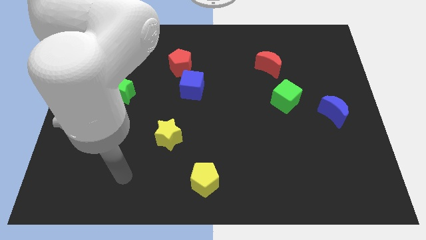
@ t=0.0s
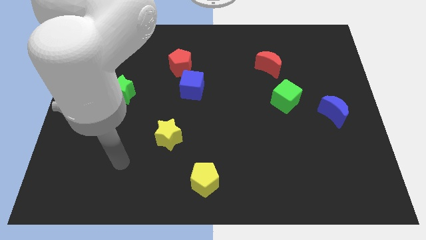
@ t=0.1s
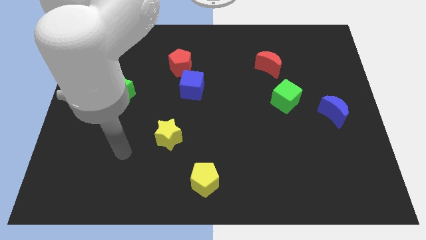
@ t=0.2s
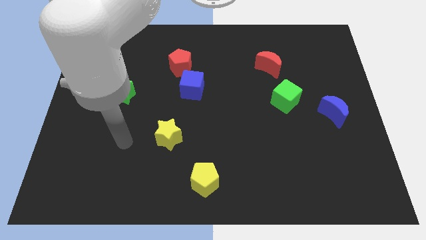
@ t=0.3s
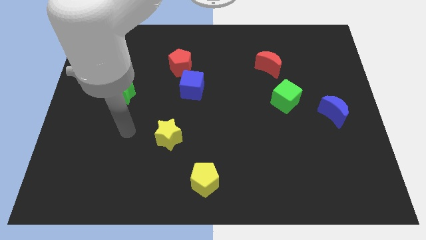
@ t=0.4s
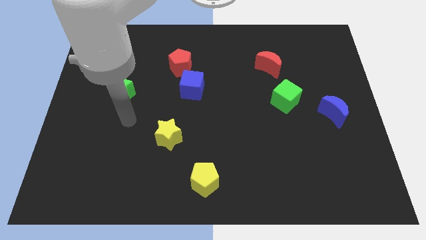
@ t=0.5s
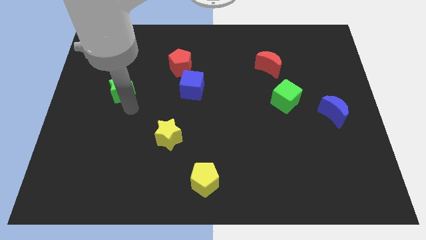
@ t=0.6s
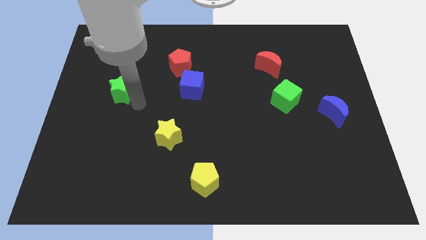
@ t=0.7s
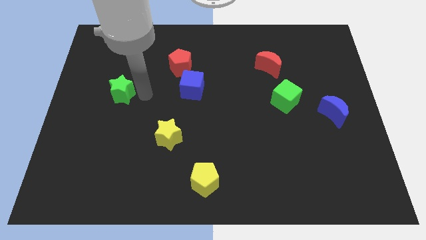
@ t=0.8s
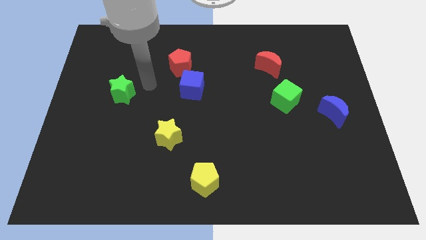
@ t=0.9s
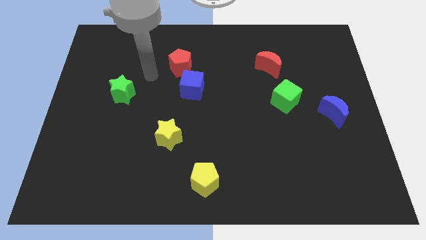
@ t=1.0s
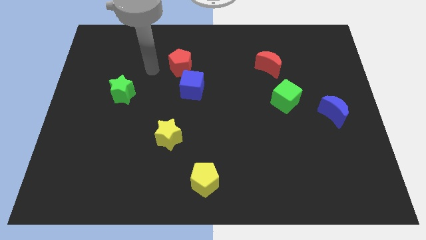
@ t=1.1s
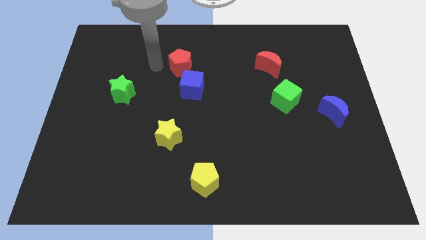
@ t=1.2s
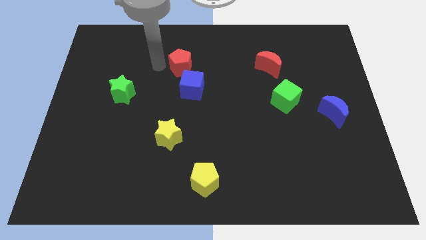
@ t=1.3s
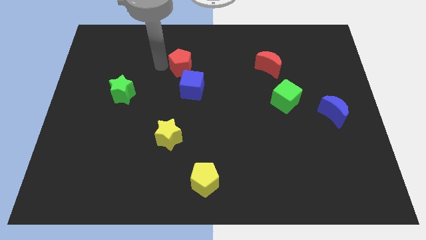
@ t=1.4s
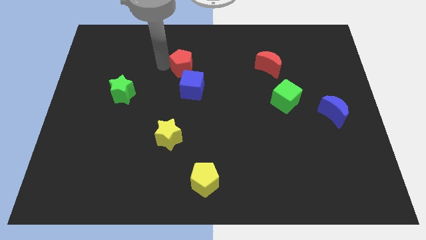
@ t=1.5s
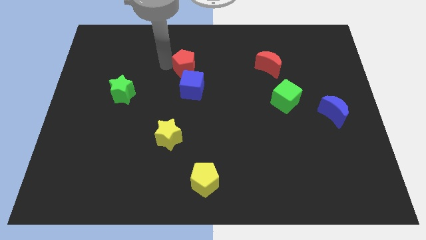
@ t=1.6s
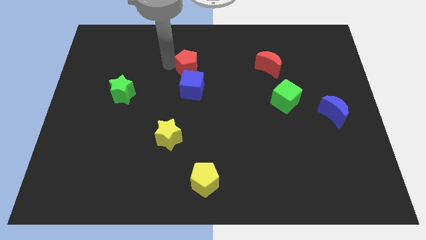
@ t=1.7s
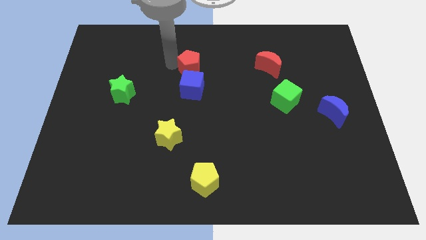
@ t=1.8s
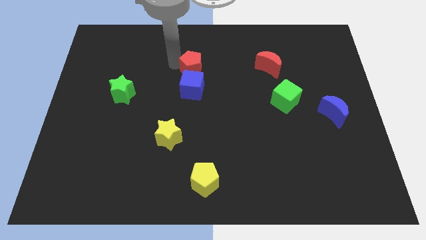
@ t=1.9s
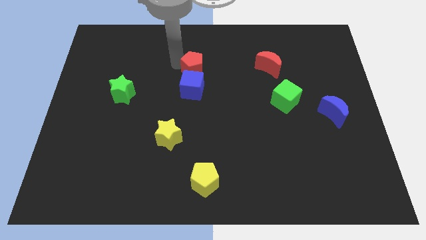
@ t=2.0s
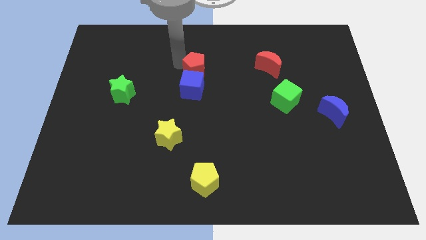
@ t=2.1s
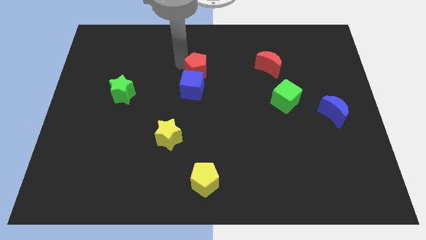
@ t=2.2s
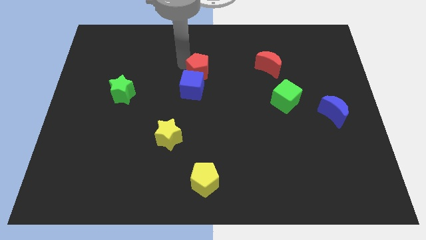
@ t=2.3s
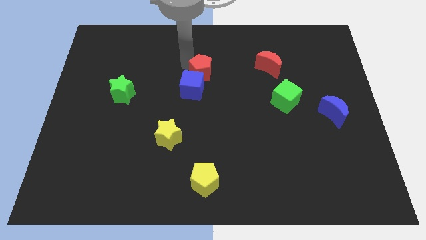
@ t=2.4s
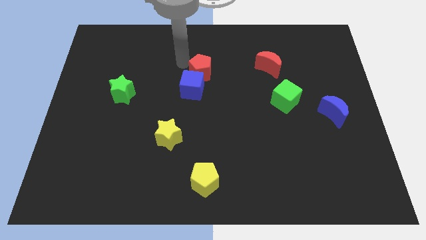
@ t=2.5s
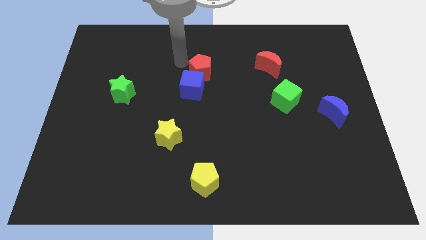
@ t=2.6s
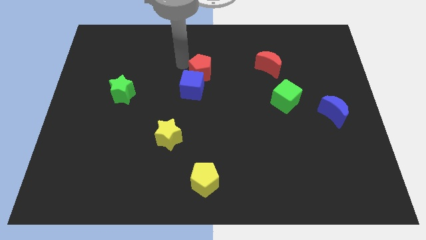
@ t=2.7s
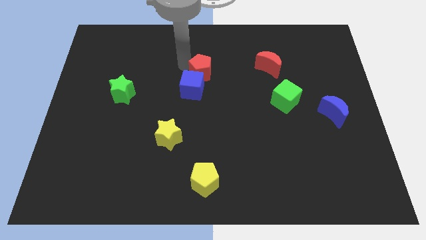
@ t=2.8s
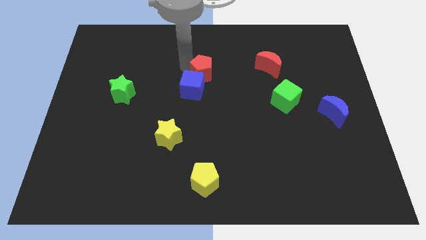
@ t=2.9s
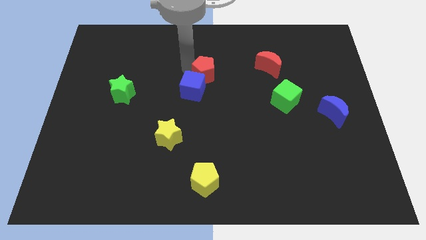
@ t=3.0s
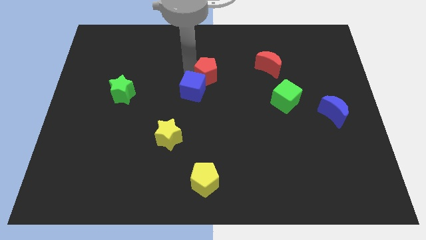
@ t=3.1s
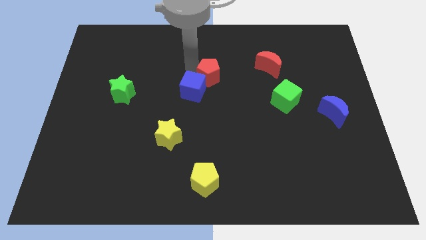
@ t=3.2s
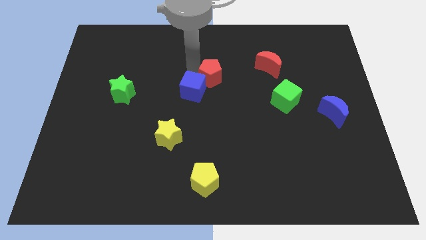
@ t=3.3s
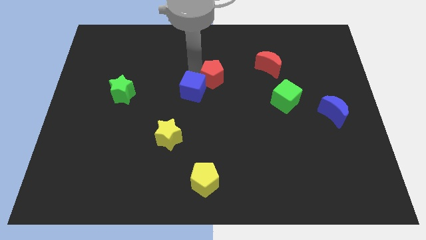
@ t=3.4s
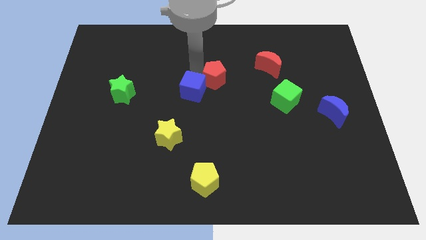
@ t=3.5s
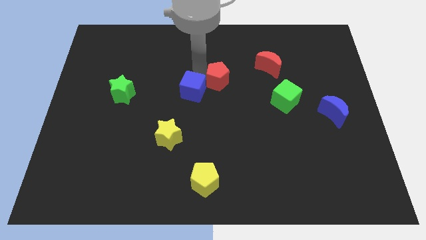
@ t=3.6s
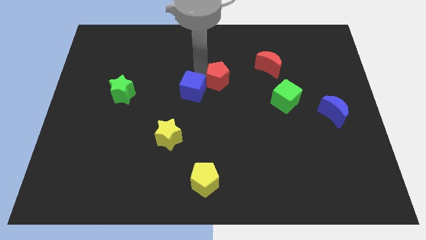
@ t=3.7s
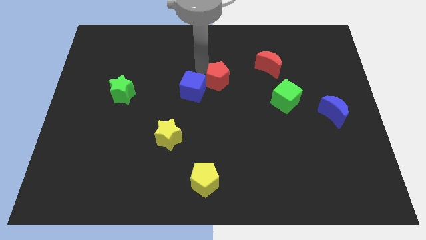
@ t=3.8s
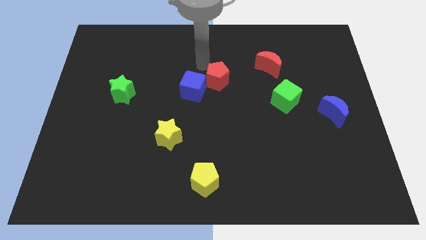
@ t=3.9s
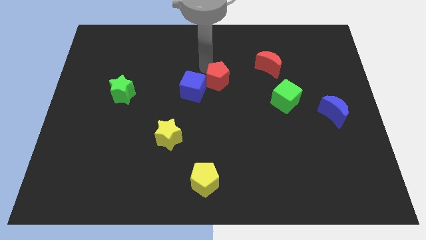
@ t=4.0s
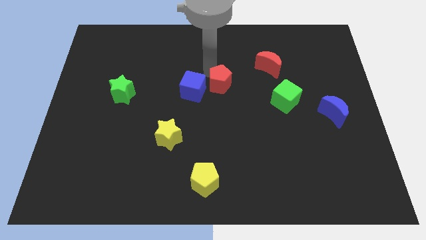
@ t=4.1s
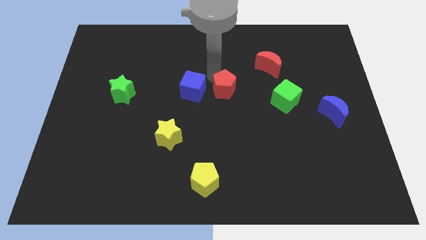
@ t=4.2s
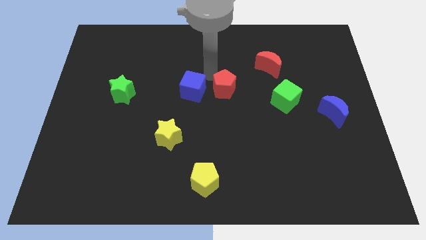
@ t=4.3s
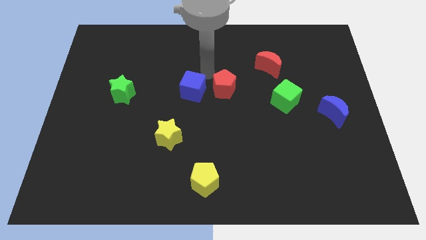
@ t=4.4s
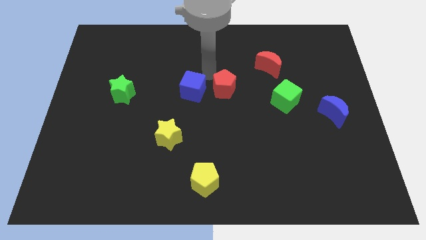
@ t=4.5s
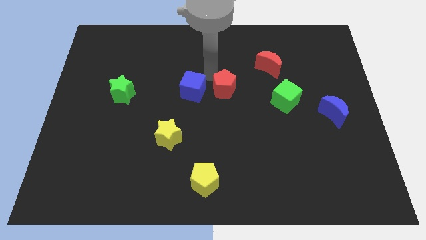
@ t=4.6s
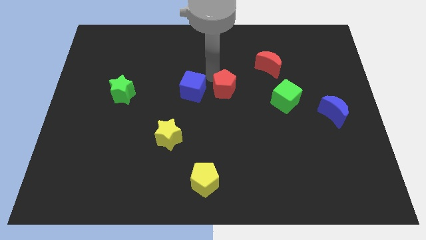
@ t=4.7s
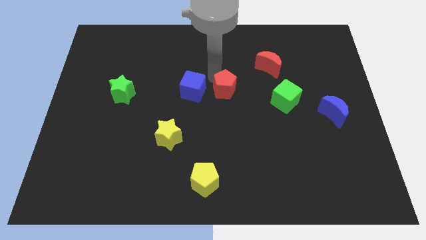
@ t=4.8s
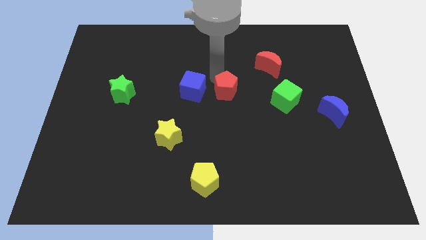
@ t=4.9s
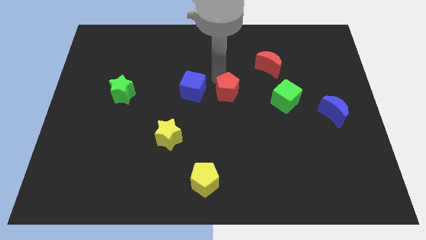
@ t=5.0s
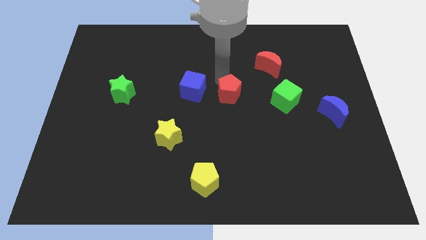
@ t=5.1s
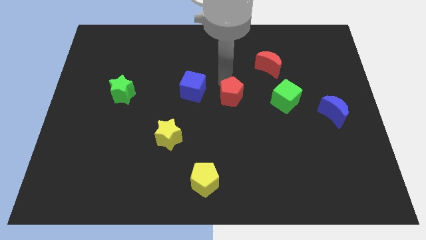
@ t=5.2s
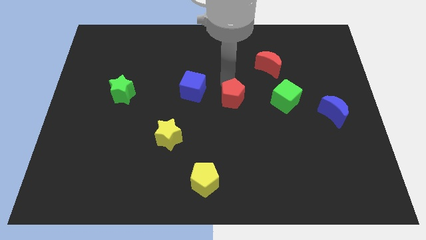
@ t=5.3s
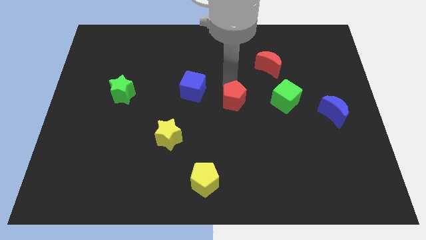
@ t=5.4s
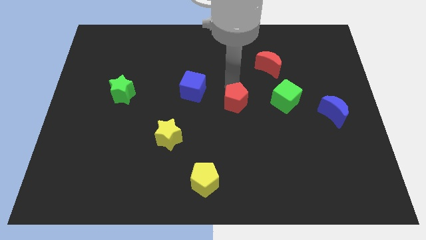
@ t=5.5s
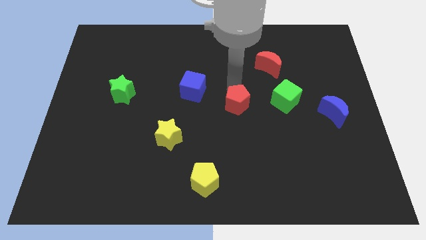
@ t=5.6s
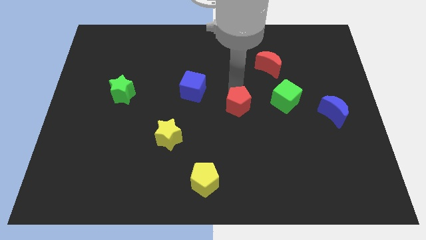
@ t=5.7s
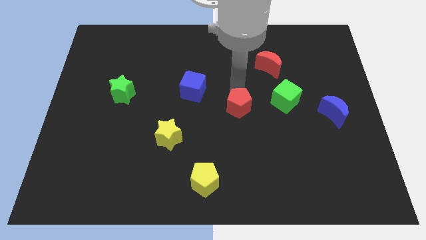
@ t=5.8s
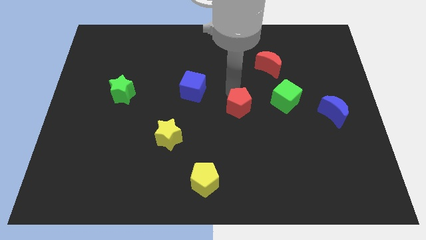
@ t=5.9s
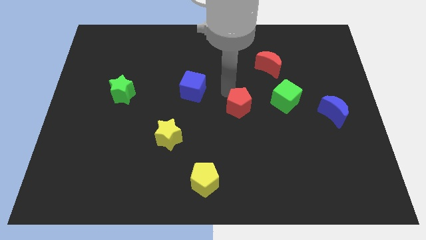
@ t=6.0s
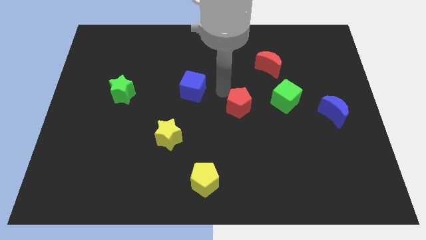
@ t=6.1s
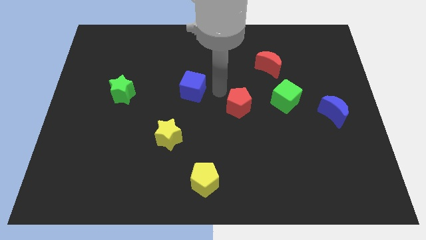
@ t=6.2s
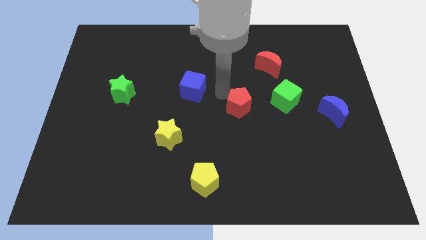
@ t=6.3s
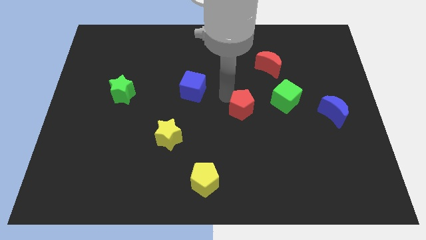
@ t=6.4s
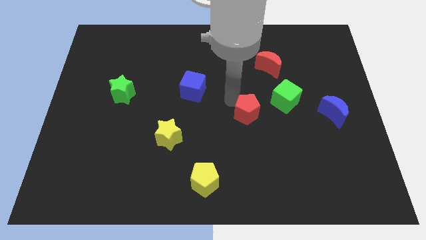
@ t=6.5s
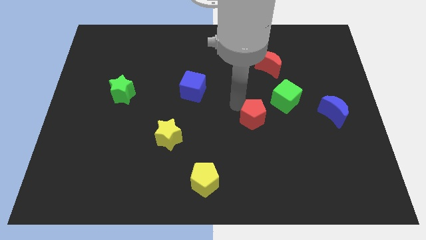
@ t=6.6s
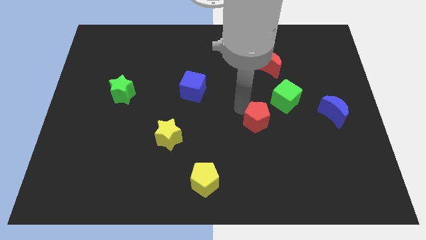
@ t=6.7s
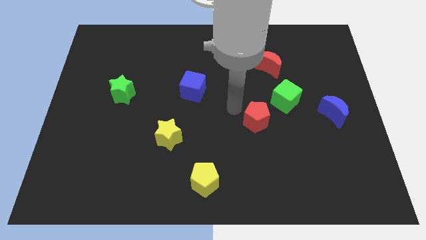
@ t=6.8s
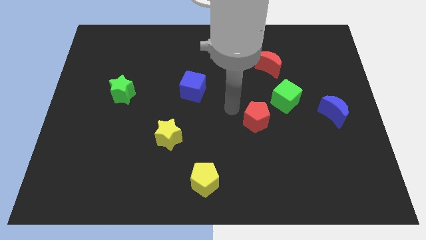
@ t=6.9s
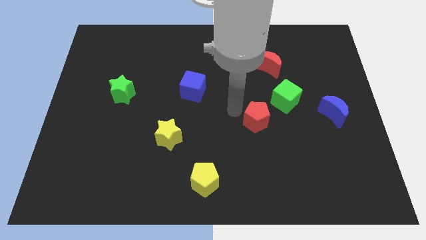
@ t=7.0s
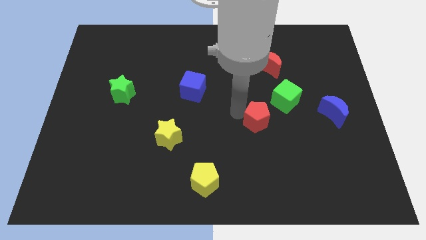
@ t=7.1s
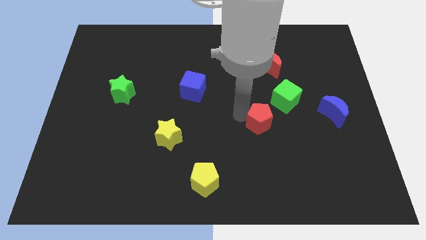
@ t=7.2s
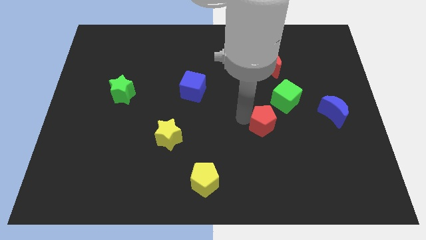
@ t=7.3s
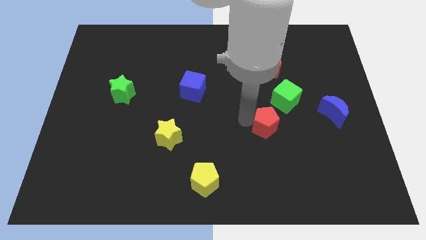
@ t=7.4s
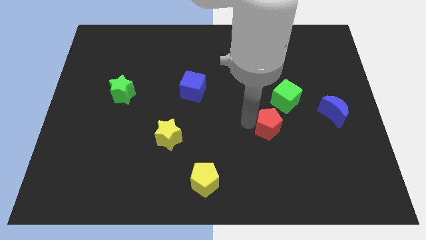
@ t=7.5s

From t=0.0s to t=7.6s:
slide the red pentagon below the green cube

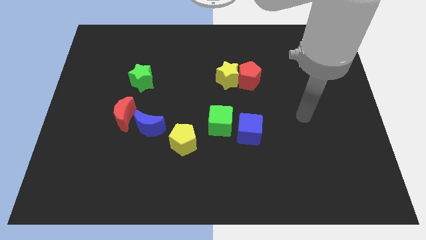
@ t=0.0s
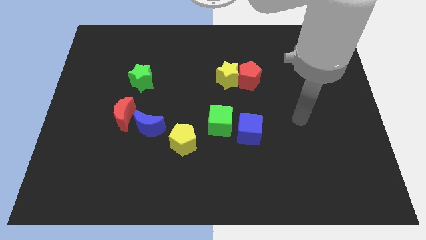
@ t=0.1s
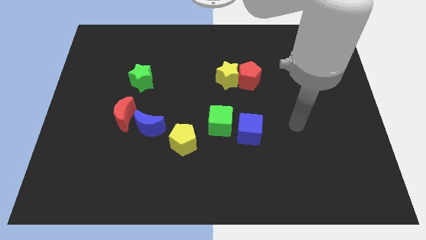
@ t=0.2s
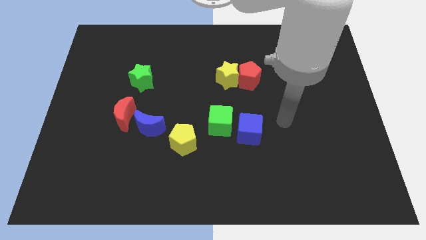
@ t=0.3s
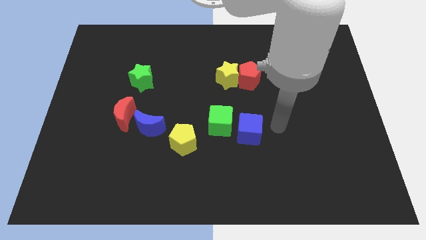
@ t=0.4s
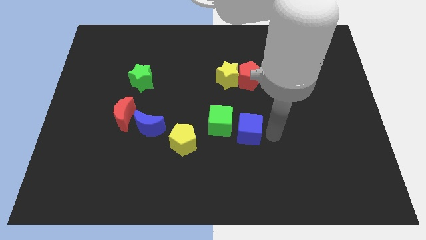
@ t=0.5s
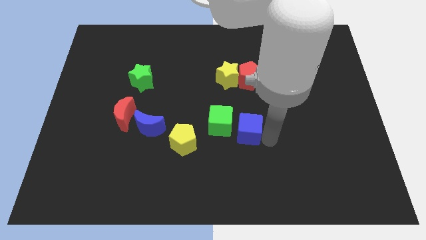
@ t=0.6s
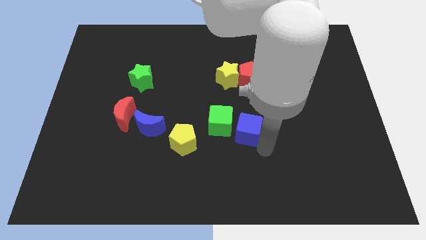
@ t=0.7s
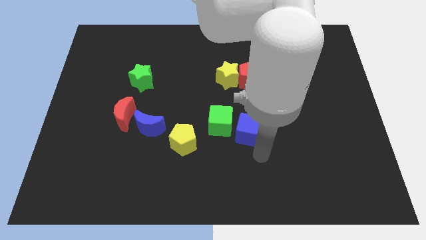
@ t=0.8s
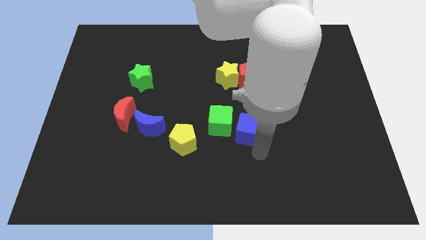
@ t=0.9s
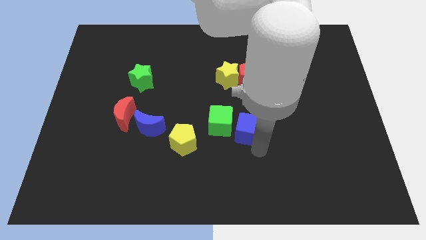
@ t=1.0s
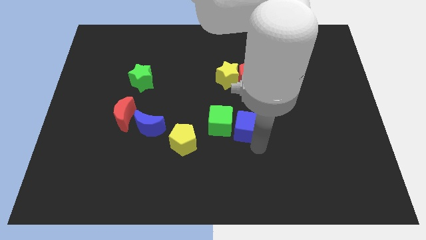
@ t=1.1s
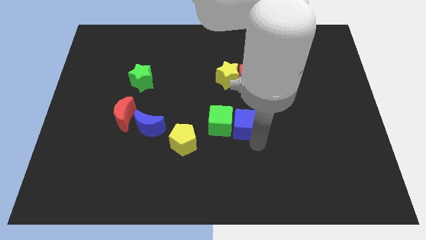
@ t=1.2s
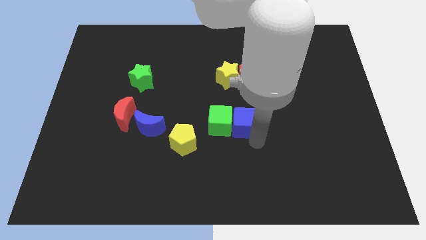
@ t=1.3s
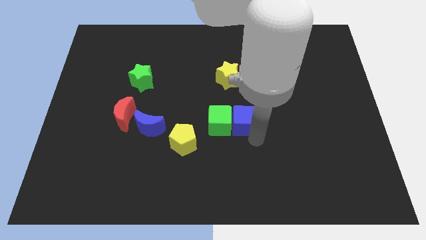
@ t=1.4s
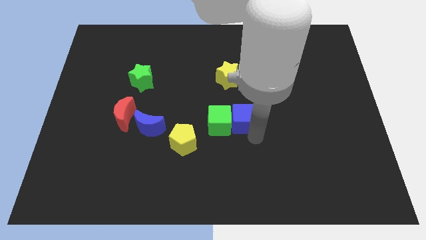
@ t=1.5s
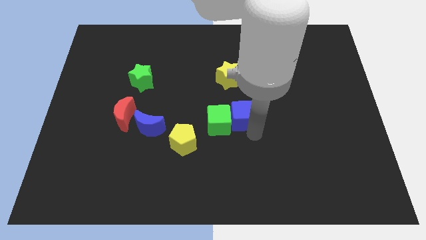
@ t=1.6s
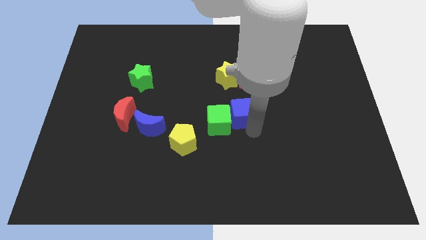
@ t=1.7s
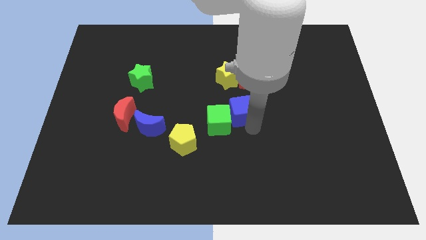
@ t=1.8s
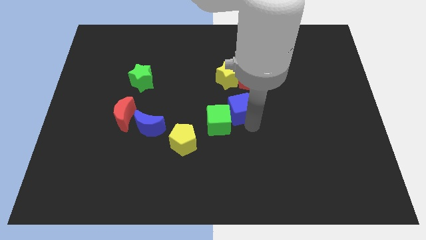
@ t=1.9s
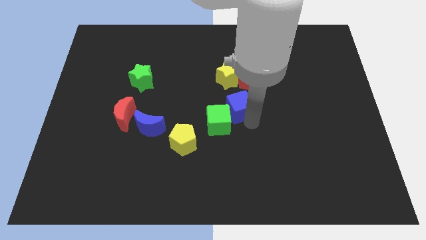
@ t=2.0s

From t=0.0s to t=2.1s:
put the blue cube to the bottom left of the red pentagon
